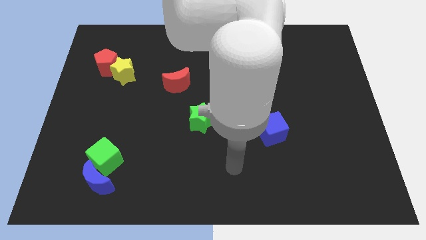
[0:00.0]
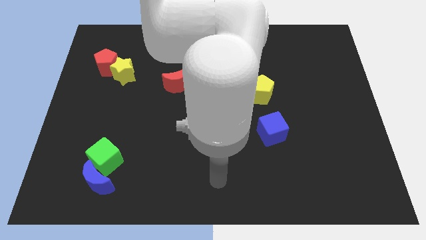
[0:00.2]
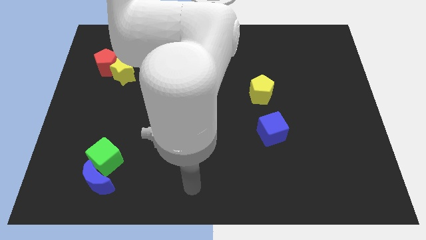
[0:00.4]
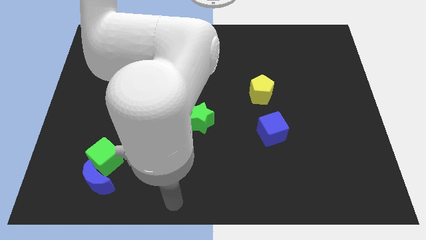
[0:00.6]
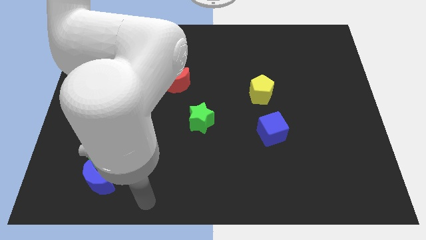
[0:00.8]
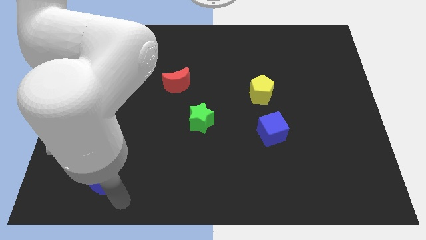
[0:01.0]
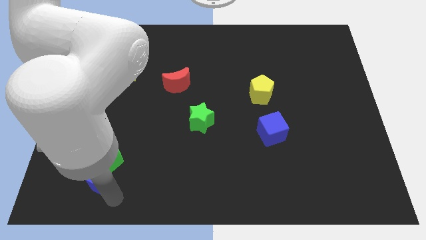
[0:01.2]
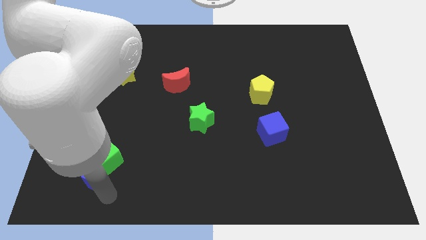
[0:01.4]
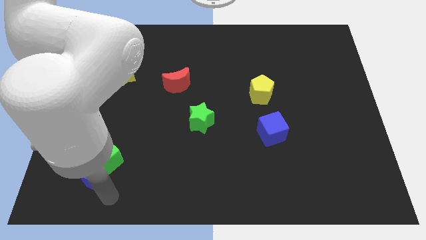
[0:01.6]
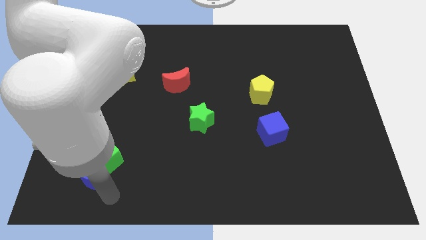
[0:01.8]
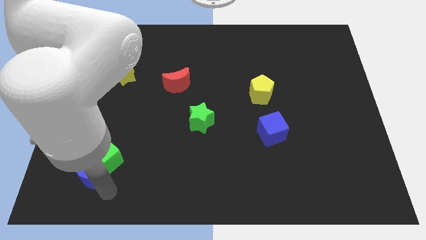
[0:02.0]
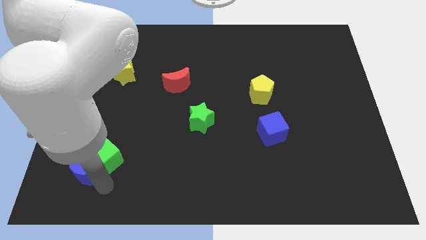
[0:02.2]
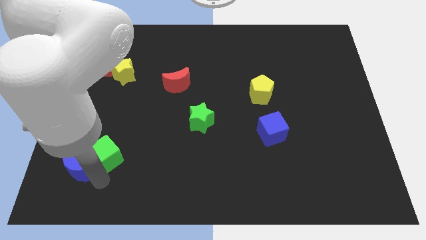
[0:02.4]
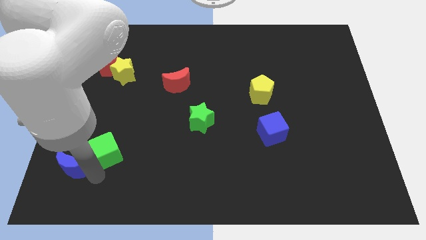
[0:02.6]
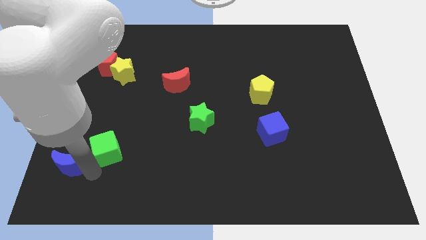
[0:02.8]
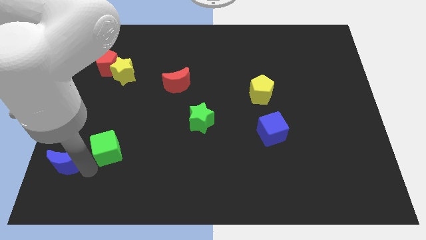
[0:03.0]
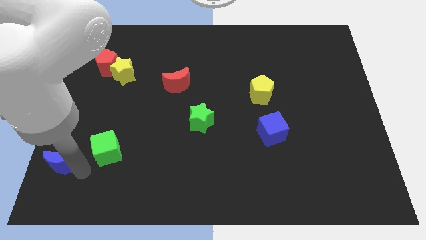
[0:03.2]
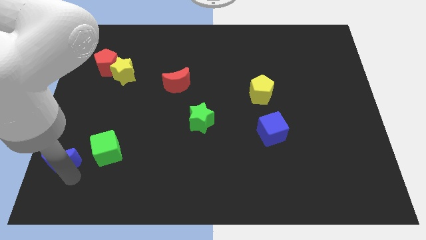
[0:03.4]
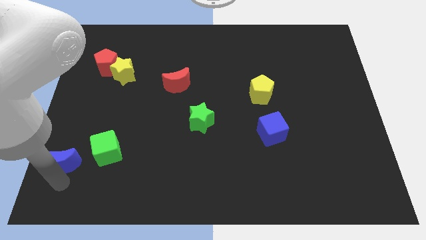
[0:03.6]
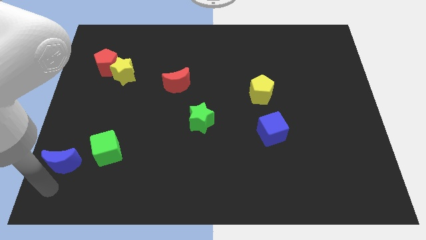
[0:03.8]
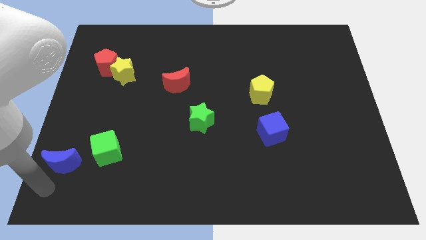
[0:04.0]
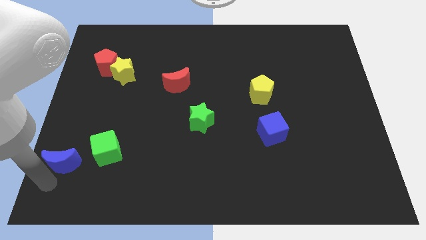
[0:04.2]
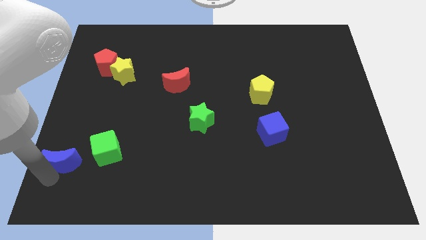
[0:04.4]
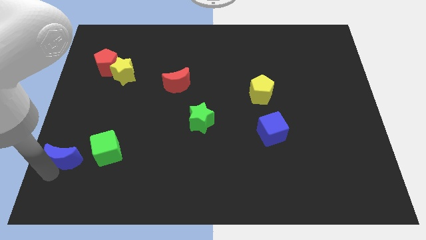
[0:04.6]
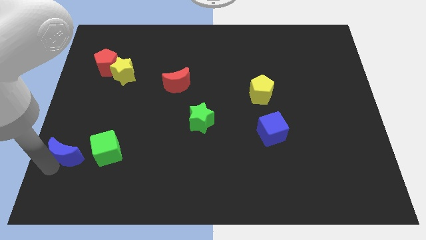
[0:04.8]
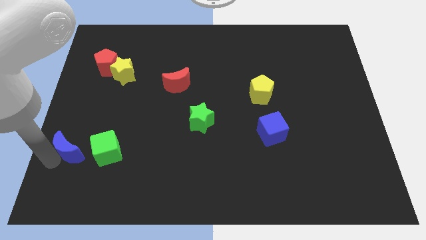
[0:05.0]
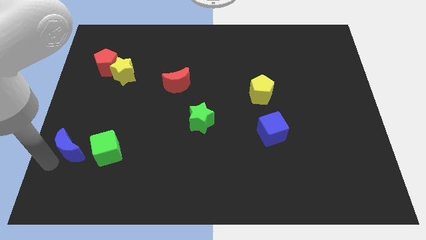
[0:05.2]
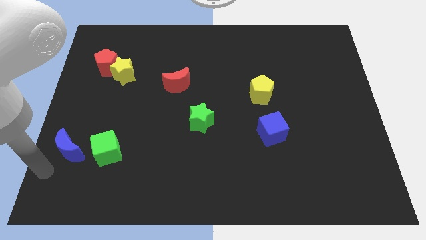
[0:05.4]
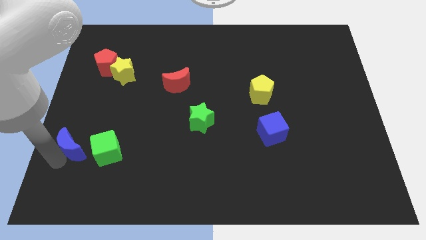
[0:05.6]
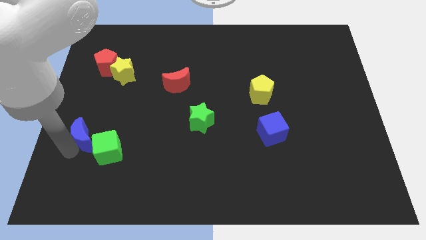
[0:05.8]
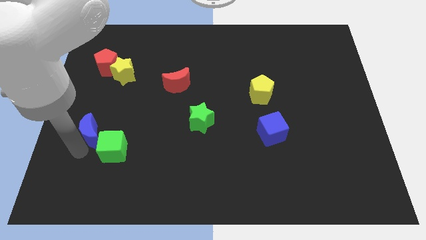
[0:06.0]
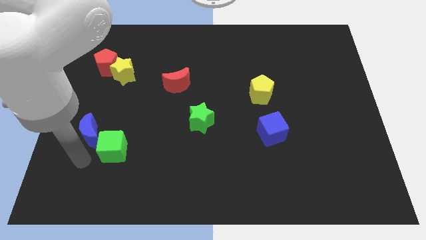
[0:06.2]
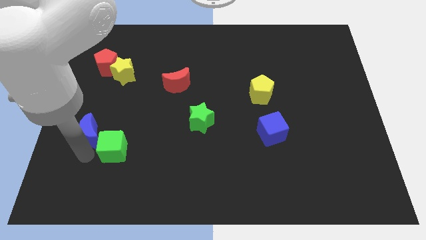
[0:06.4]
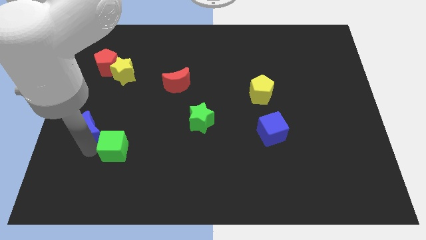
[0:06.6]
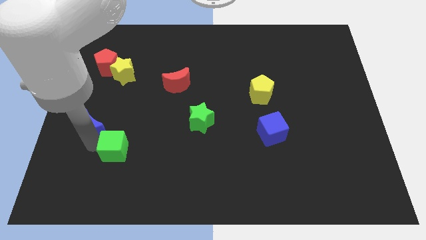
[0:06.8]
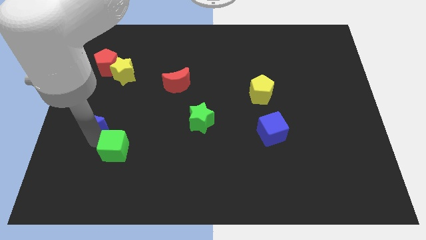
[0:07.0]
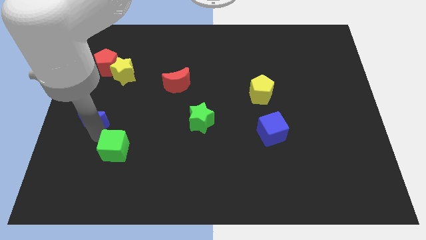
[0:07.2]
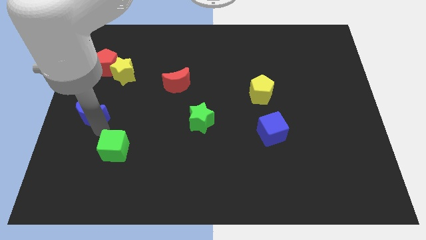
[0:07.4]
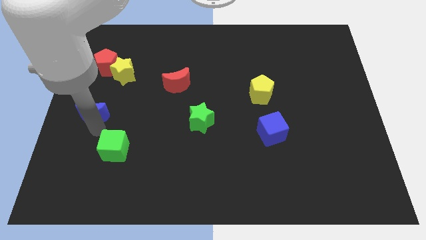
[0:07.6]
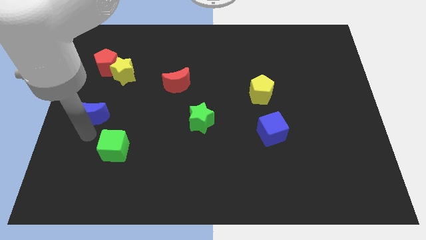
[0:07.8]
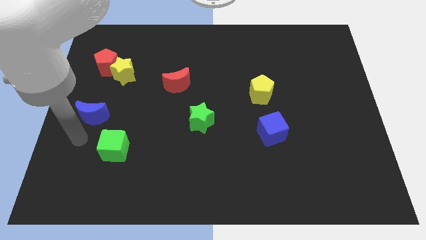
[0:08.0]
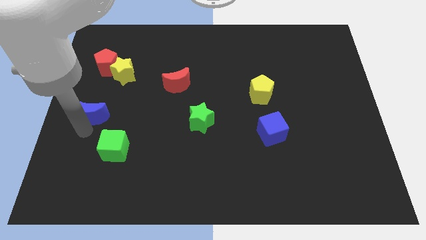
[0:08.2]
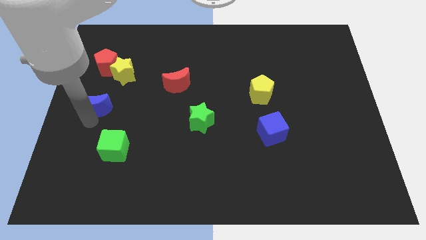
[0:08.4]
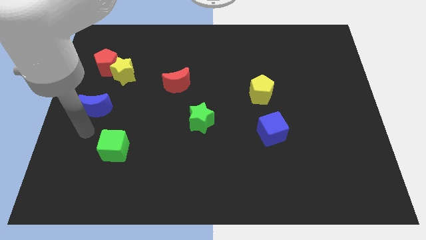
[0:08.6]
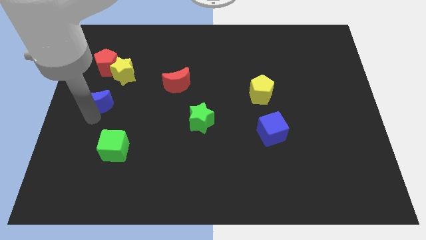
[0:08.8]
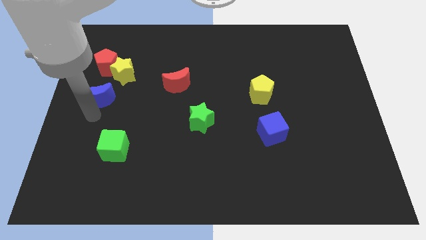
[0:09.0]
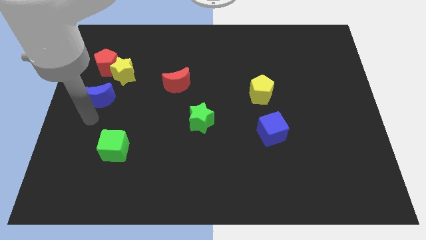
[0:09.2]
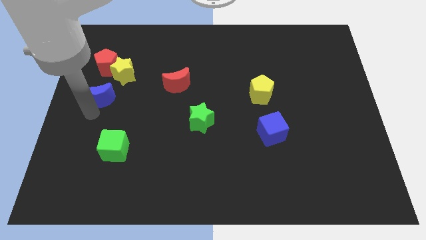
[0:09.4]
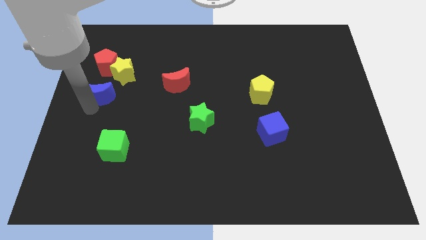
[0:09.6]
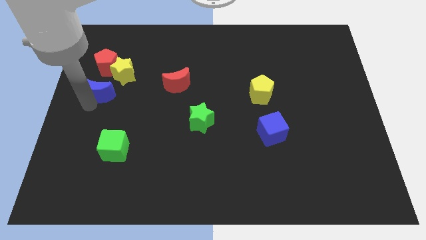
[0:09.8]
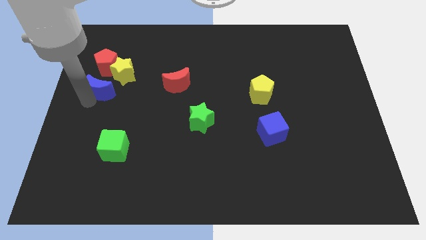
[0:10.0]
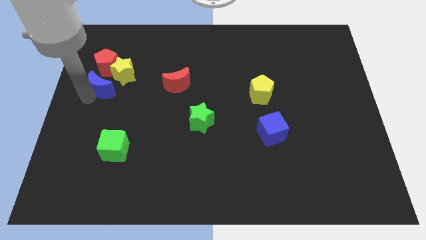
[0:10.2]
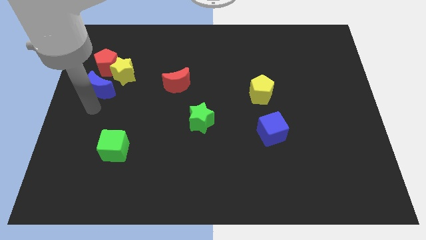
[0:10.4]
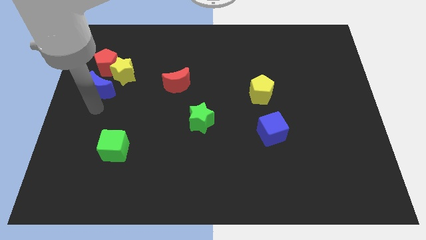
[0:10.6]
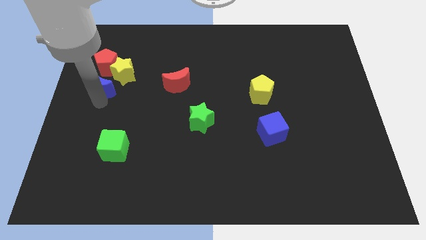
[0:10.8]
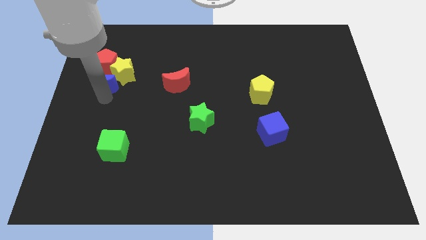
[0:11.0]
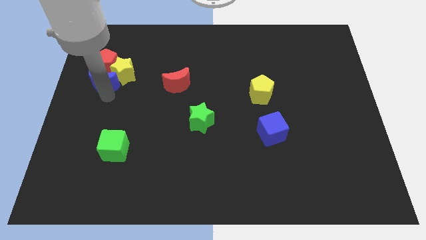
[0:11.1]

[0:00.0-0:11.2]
push the blue moon next to the red pentagon

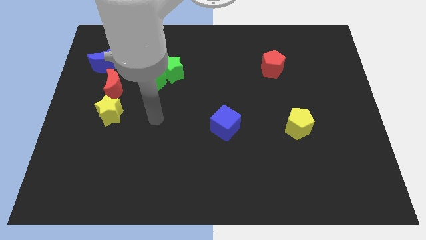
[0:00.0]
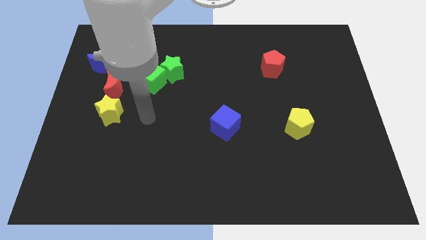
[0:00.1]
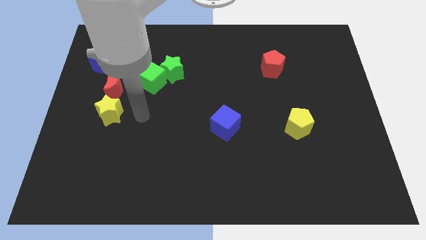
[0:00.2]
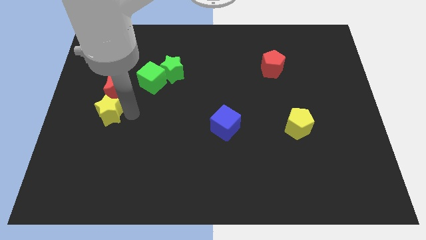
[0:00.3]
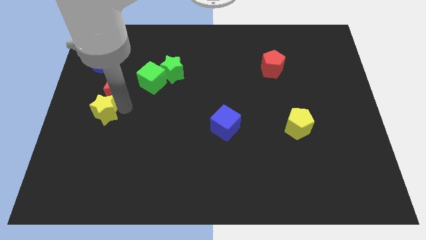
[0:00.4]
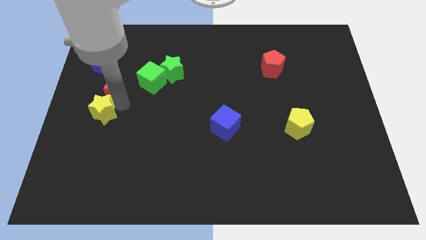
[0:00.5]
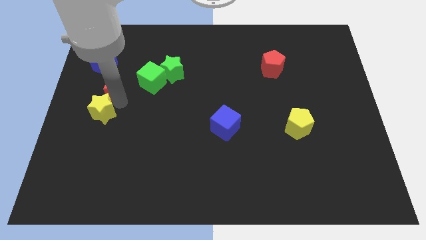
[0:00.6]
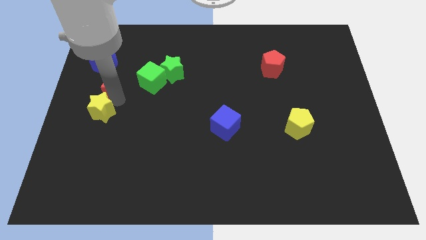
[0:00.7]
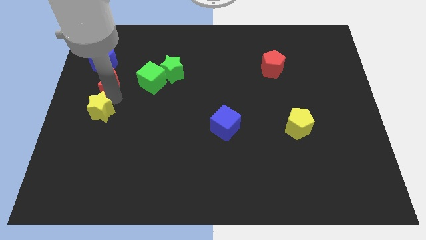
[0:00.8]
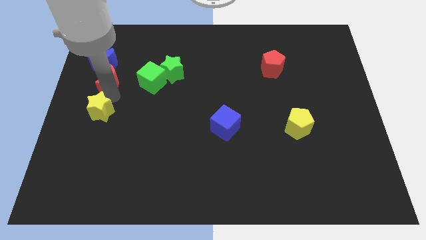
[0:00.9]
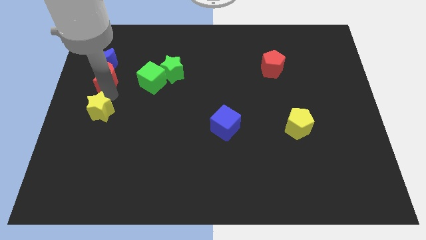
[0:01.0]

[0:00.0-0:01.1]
push the red moon close to the blue moon
